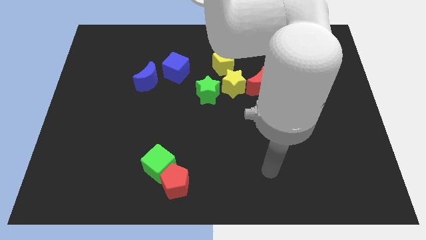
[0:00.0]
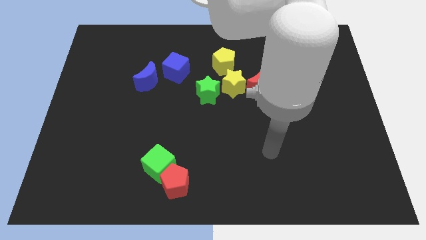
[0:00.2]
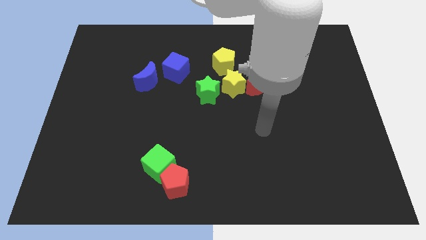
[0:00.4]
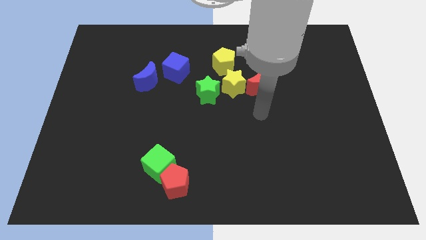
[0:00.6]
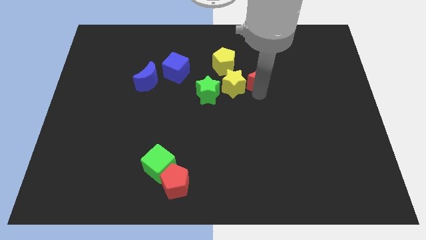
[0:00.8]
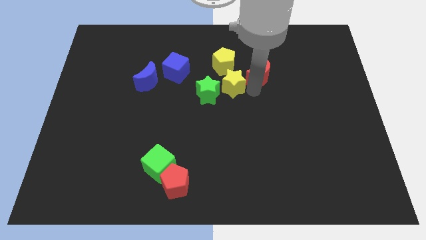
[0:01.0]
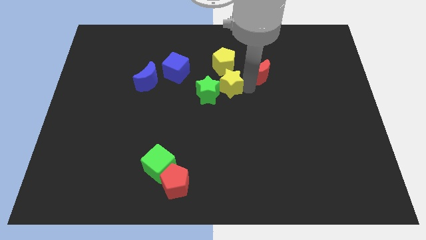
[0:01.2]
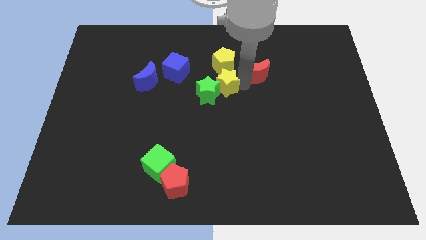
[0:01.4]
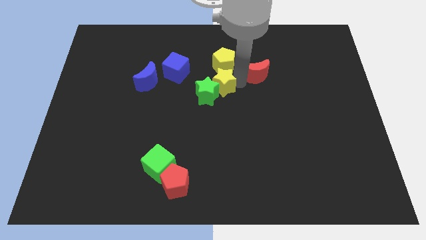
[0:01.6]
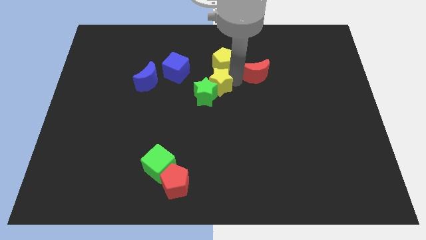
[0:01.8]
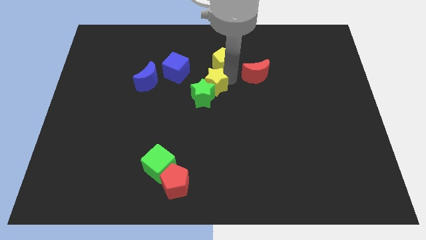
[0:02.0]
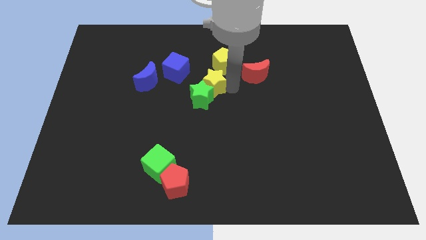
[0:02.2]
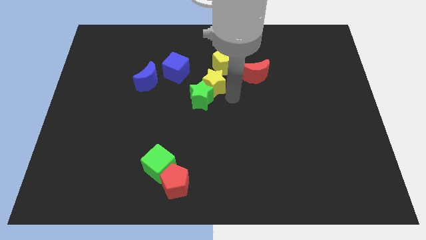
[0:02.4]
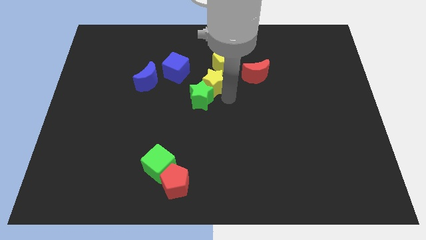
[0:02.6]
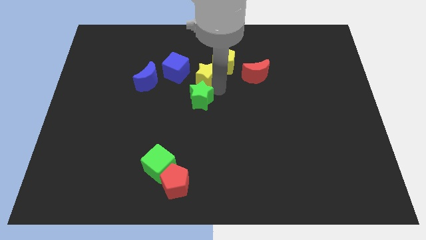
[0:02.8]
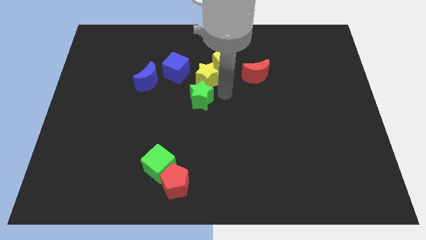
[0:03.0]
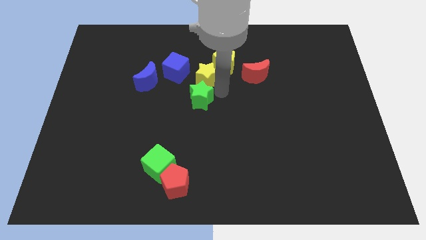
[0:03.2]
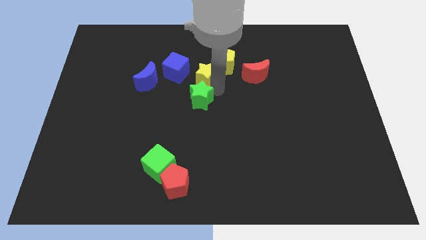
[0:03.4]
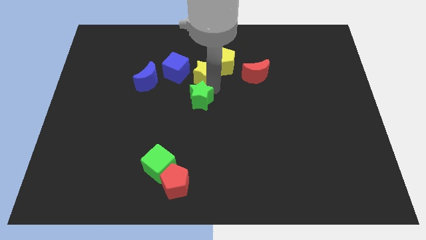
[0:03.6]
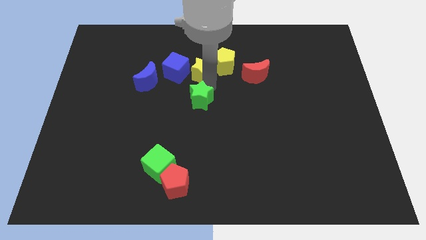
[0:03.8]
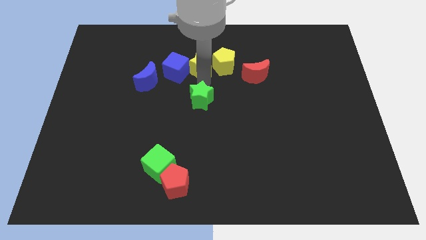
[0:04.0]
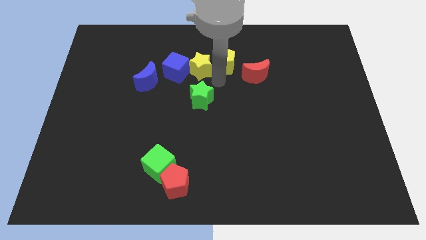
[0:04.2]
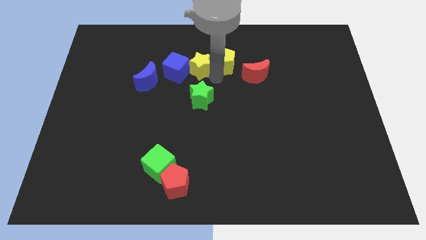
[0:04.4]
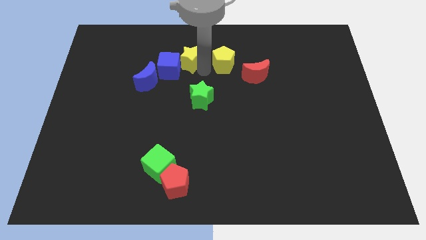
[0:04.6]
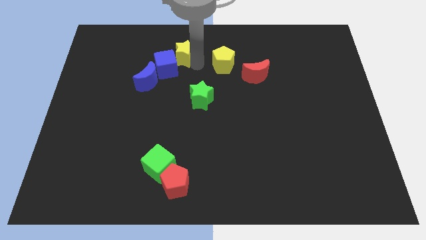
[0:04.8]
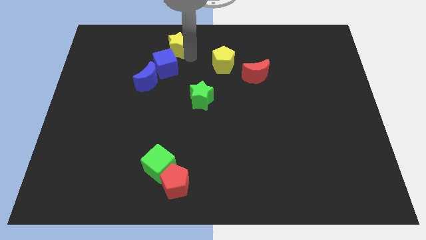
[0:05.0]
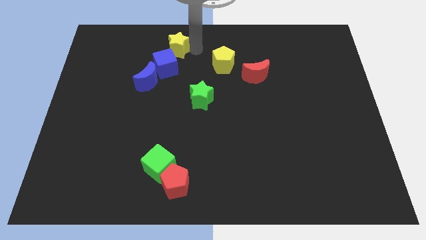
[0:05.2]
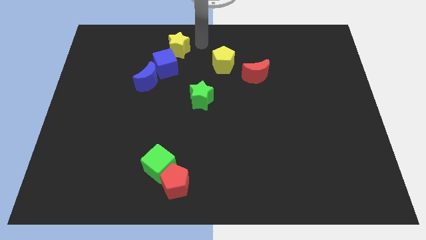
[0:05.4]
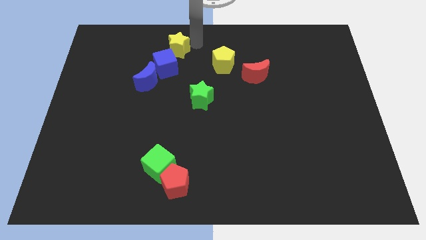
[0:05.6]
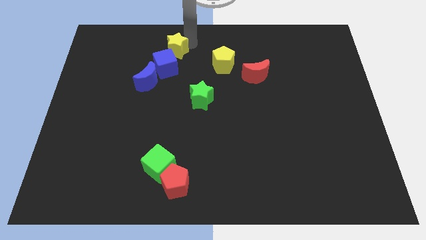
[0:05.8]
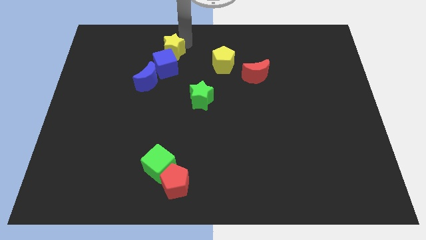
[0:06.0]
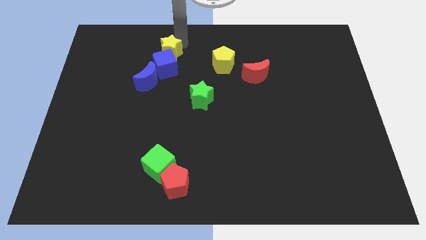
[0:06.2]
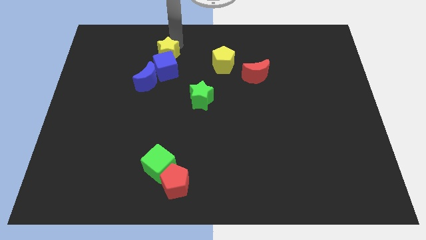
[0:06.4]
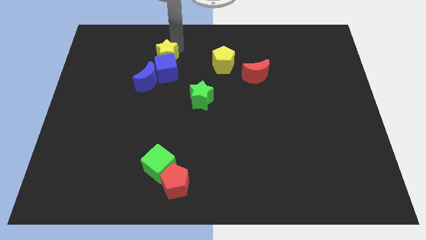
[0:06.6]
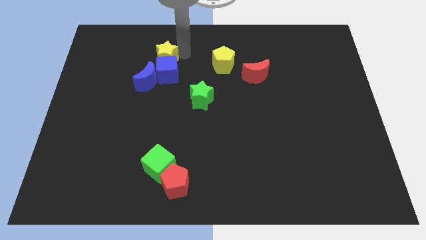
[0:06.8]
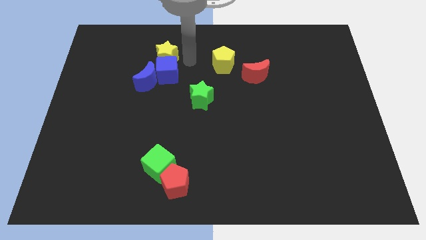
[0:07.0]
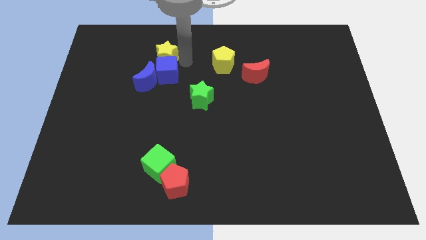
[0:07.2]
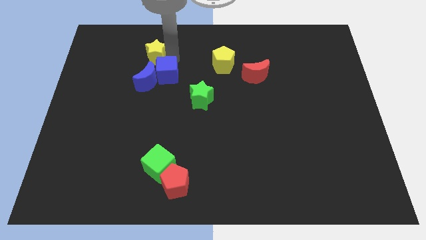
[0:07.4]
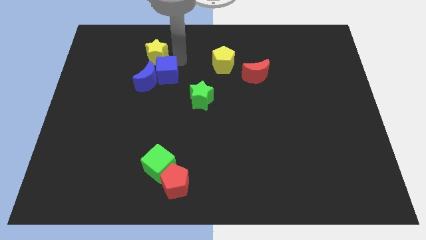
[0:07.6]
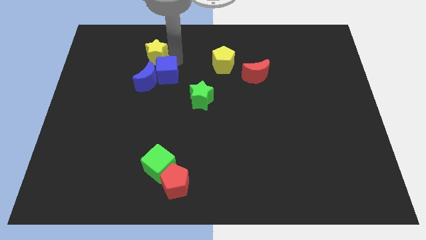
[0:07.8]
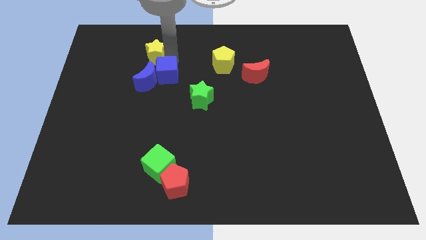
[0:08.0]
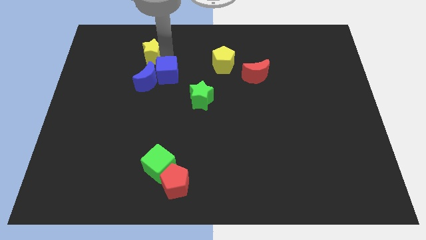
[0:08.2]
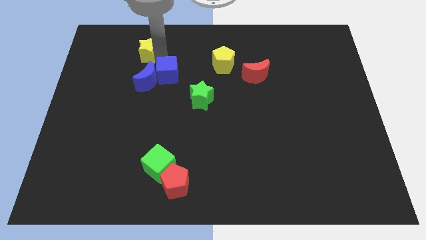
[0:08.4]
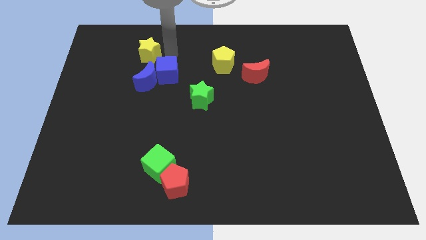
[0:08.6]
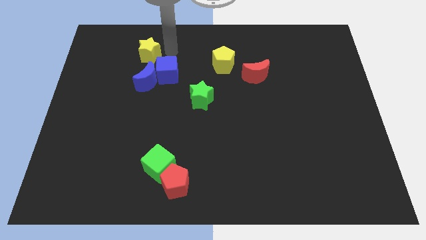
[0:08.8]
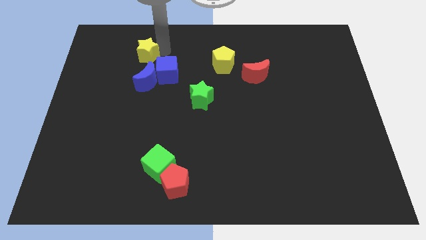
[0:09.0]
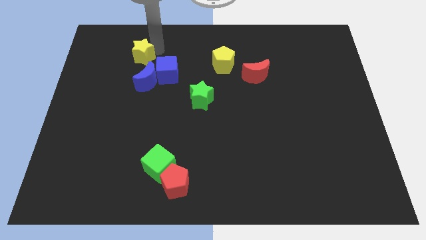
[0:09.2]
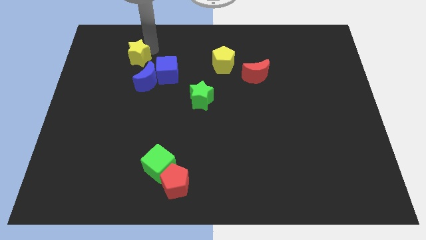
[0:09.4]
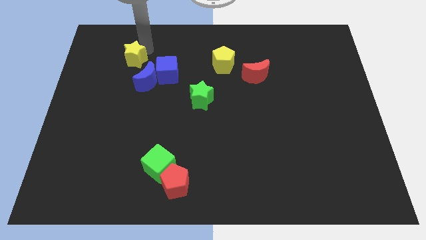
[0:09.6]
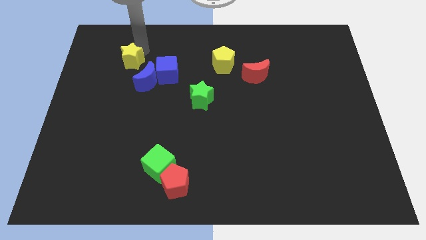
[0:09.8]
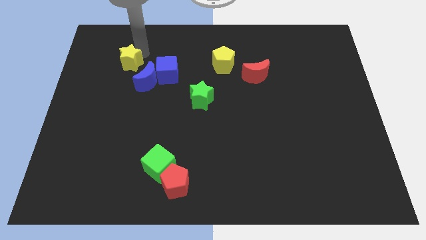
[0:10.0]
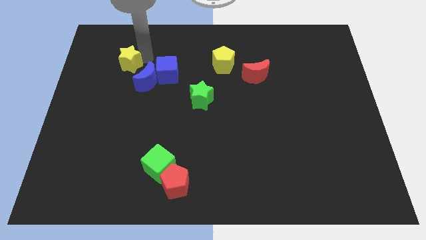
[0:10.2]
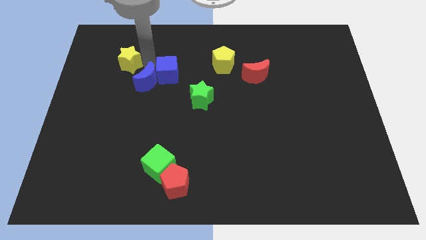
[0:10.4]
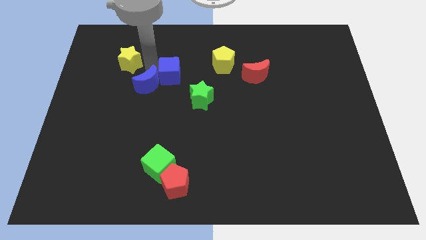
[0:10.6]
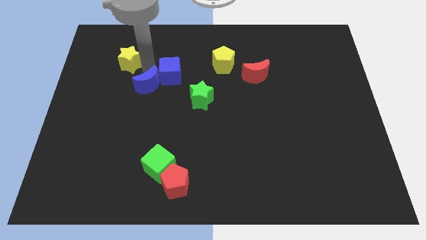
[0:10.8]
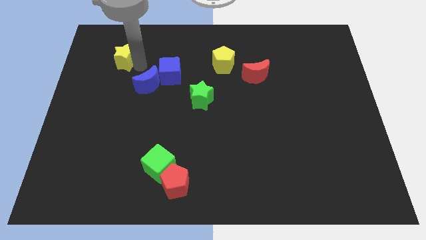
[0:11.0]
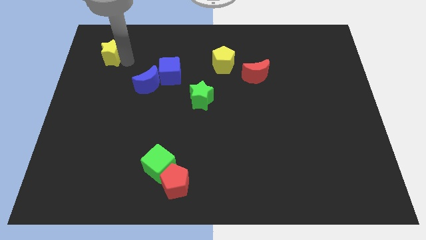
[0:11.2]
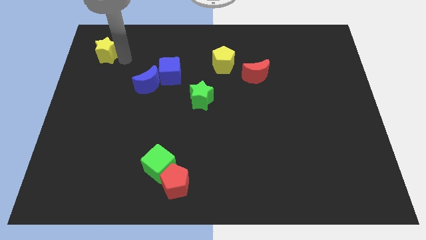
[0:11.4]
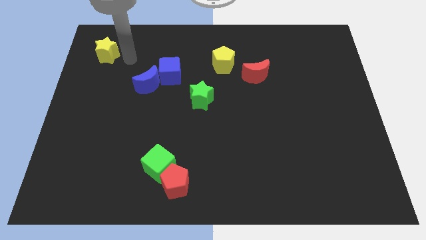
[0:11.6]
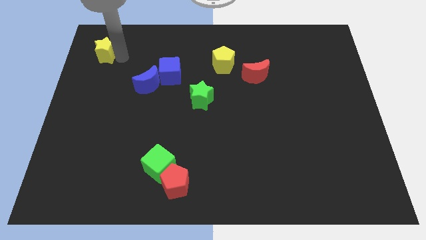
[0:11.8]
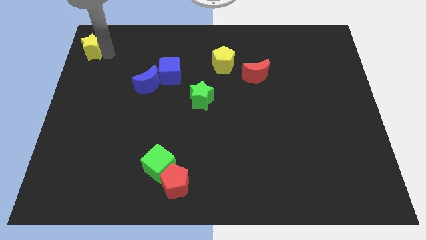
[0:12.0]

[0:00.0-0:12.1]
slide the yellow star to the top left of the board
